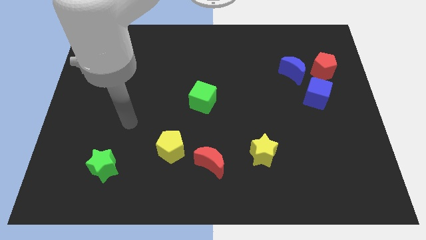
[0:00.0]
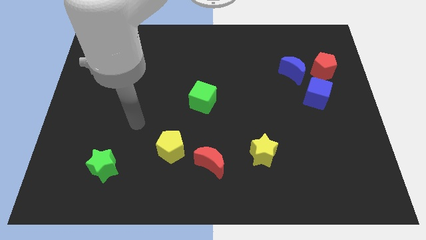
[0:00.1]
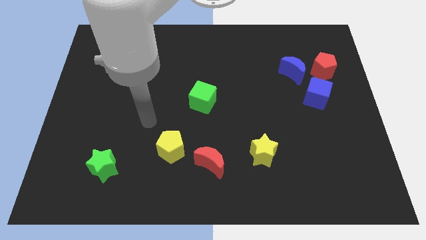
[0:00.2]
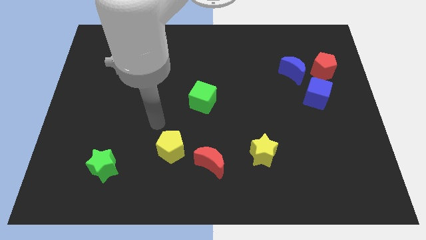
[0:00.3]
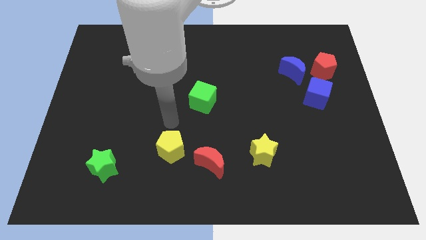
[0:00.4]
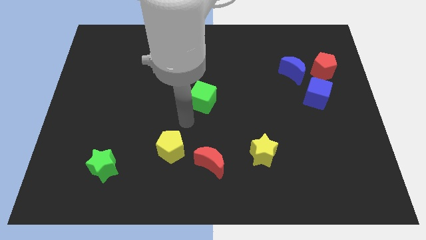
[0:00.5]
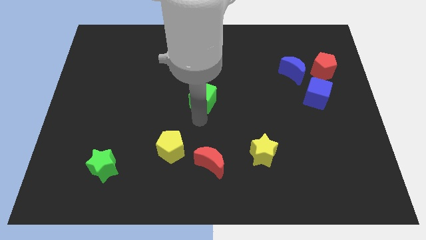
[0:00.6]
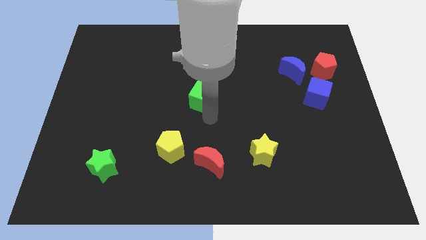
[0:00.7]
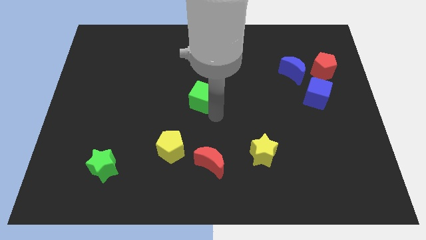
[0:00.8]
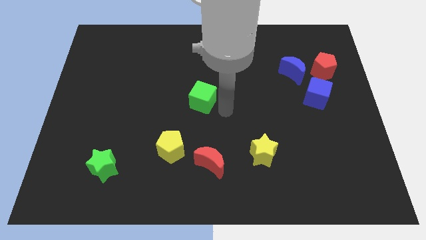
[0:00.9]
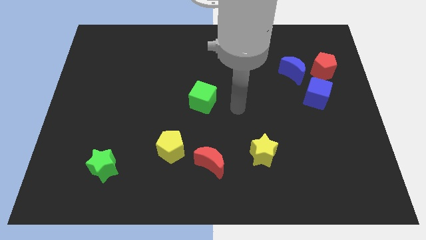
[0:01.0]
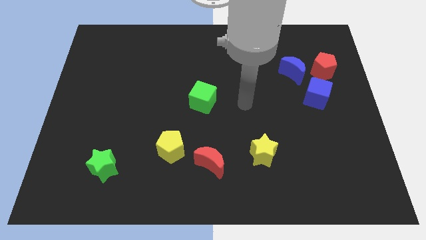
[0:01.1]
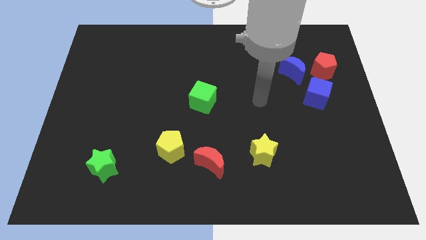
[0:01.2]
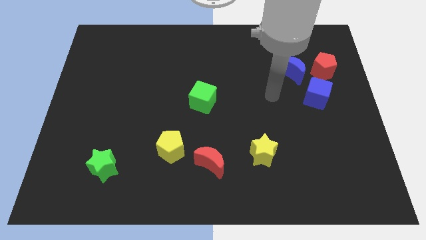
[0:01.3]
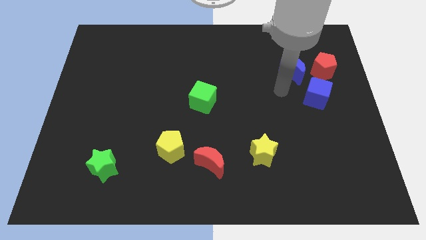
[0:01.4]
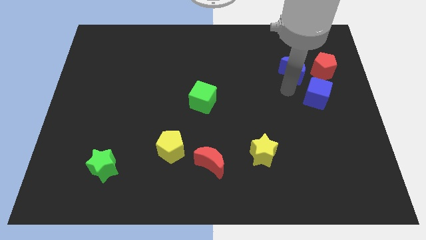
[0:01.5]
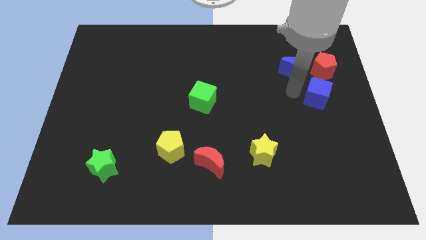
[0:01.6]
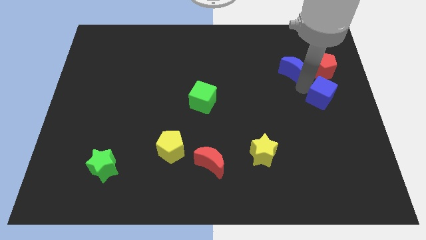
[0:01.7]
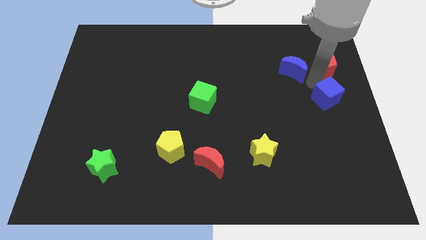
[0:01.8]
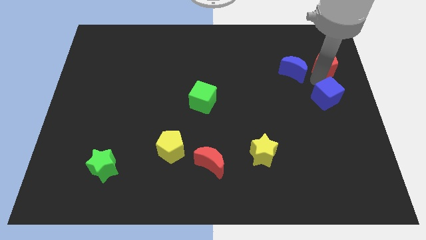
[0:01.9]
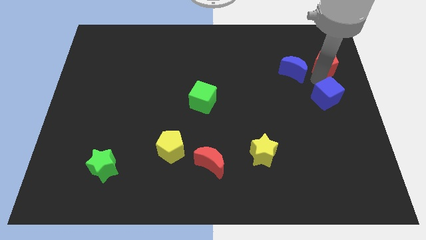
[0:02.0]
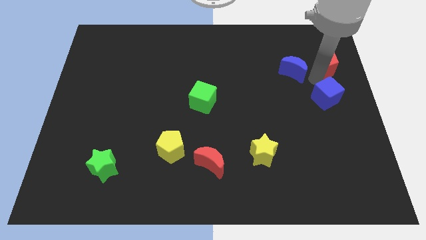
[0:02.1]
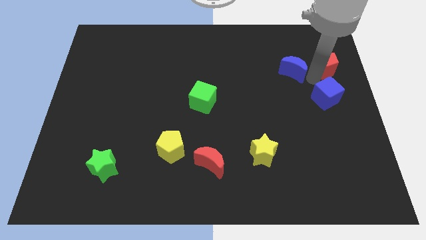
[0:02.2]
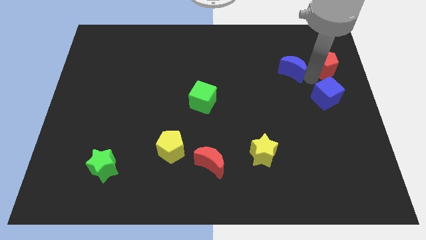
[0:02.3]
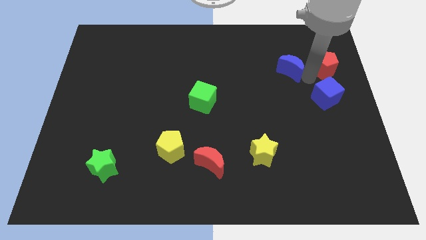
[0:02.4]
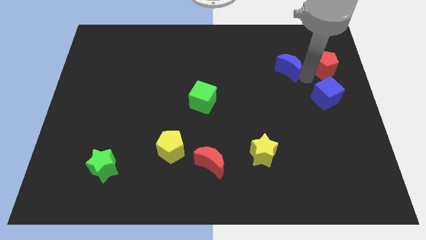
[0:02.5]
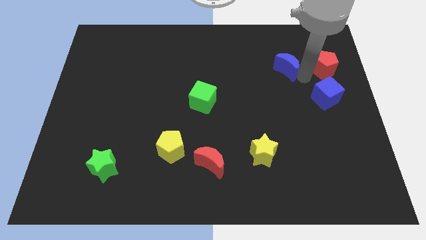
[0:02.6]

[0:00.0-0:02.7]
separate the blue moon from the red pentagon and blue cube

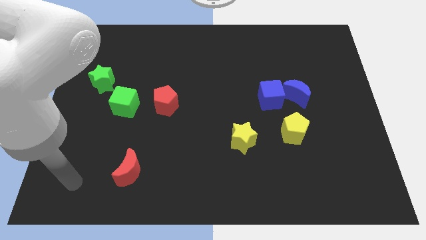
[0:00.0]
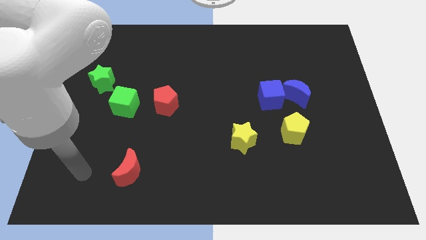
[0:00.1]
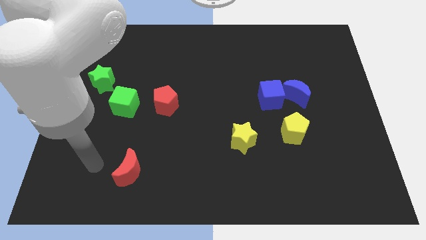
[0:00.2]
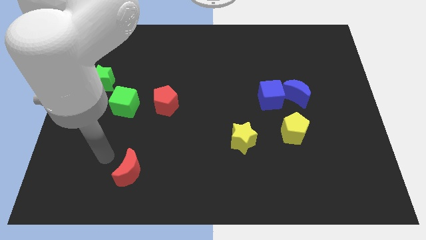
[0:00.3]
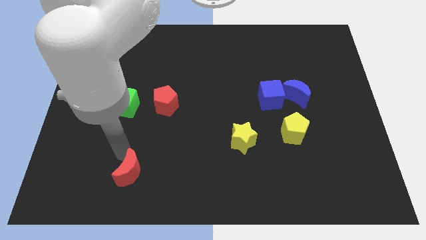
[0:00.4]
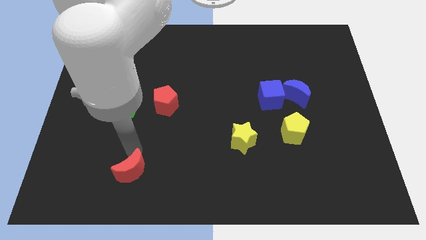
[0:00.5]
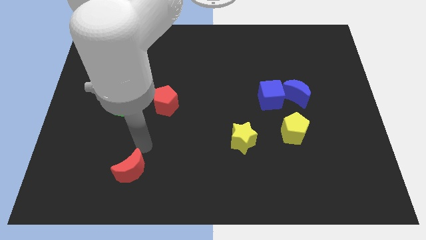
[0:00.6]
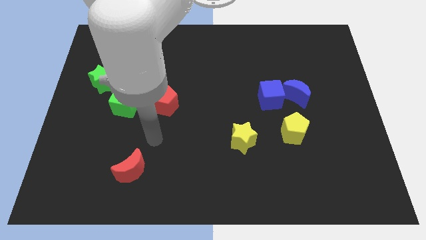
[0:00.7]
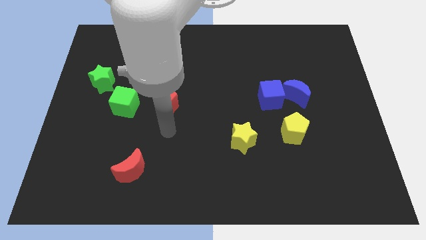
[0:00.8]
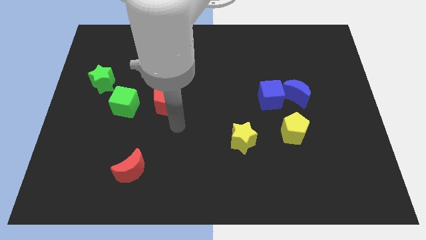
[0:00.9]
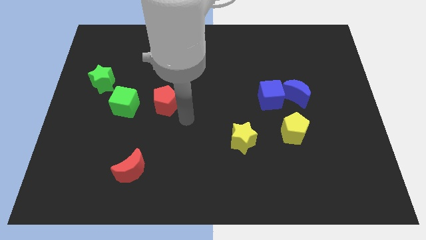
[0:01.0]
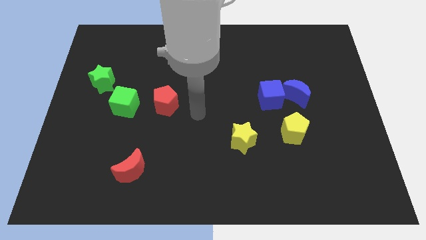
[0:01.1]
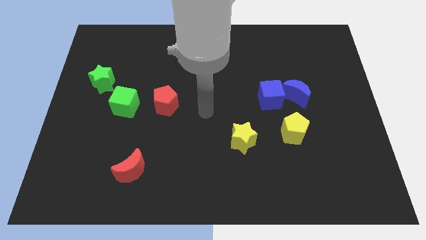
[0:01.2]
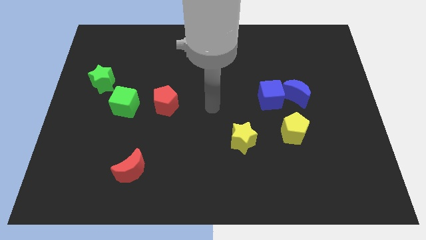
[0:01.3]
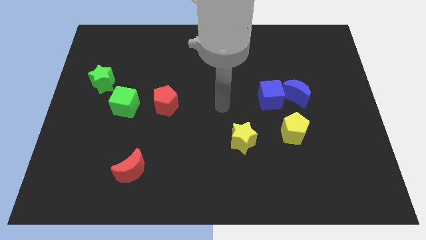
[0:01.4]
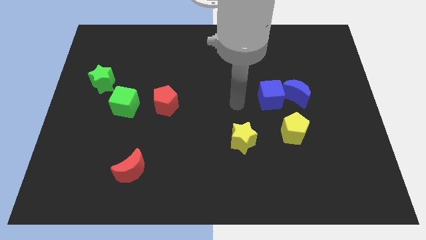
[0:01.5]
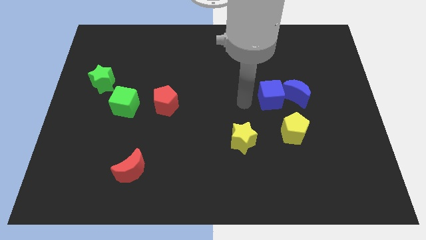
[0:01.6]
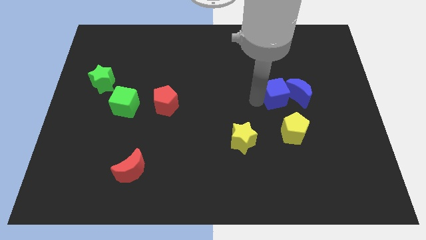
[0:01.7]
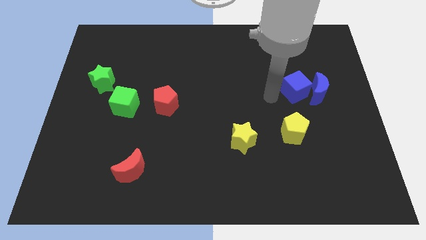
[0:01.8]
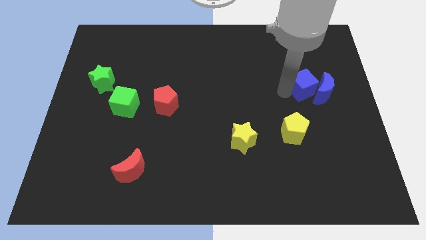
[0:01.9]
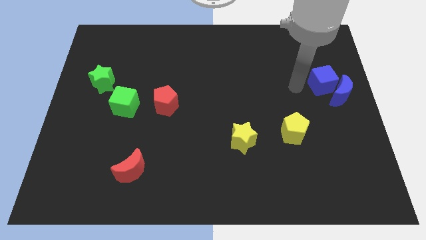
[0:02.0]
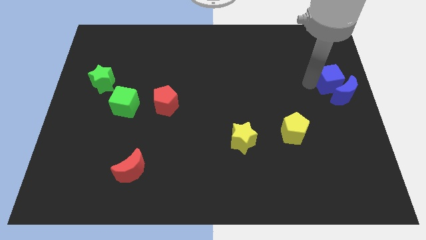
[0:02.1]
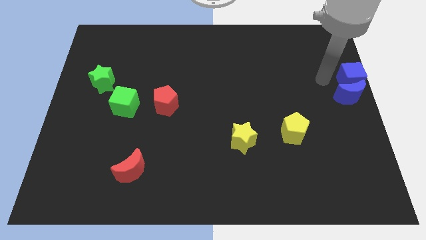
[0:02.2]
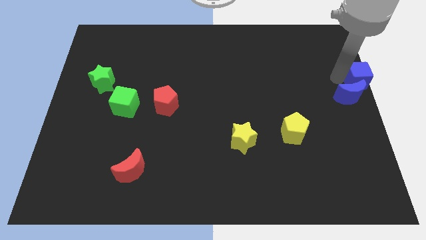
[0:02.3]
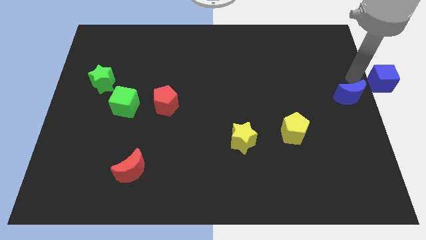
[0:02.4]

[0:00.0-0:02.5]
separate the blue moon from the blue cube

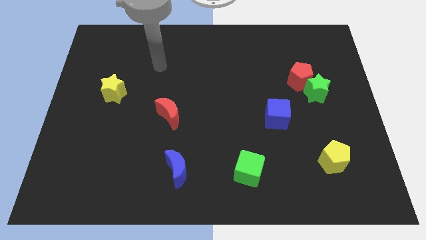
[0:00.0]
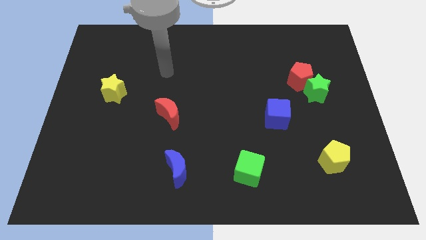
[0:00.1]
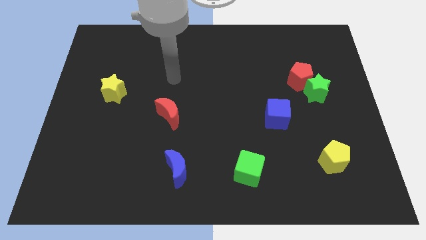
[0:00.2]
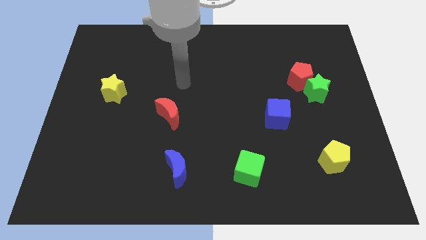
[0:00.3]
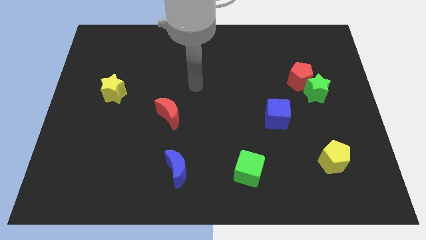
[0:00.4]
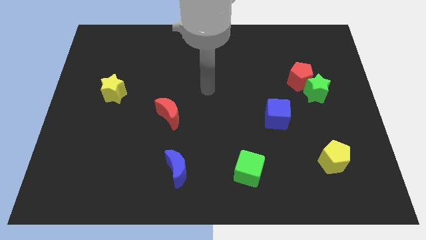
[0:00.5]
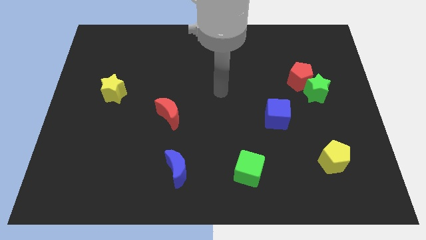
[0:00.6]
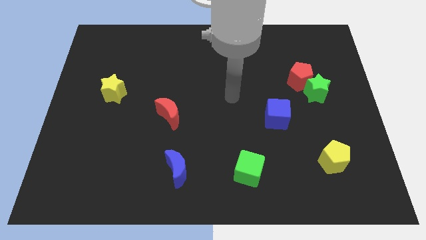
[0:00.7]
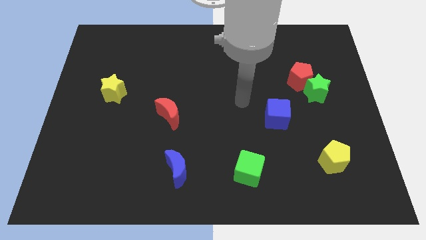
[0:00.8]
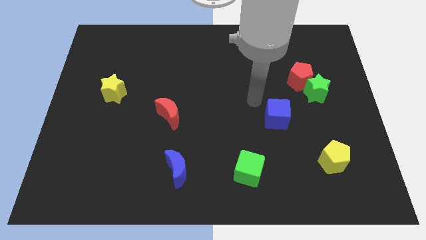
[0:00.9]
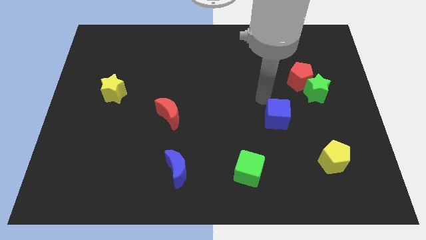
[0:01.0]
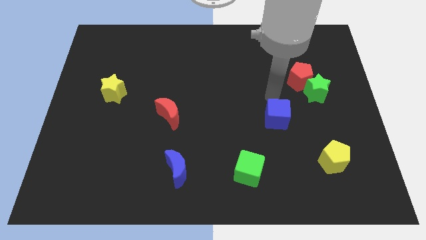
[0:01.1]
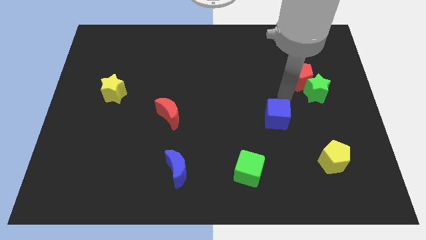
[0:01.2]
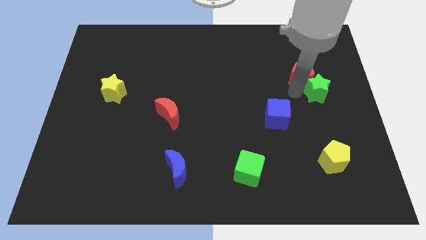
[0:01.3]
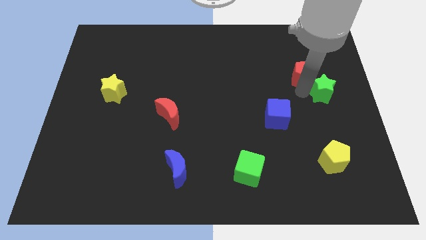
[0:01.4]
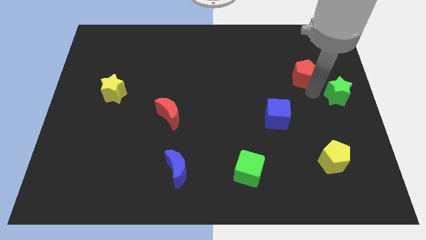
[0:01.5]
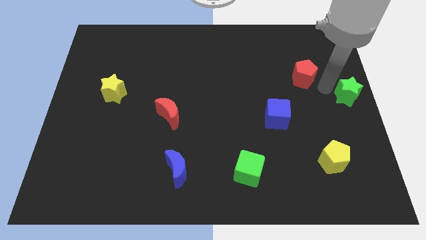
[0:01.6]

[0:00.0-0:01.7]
pull the red pentagon apart from the green star

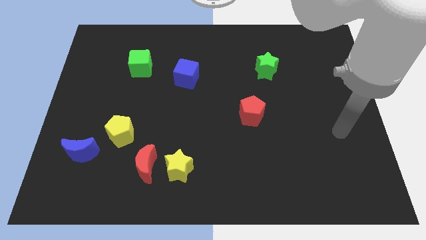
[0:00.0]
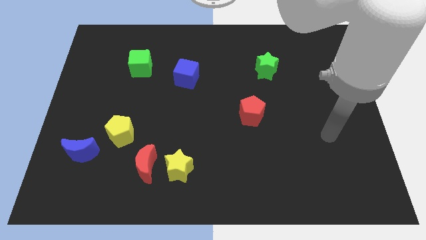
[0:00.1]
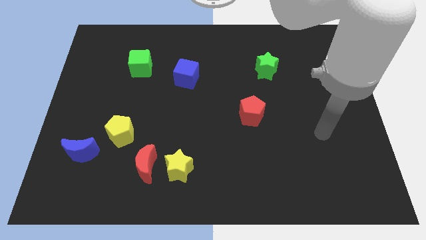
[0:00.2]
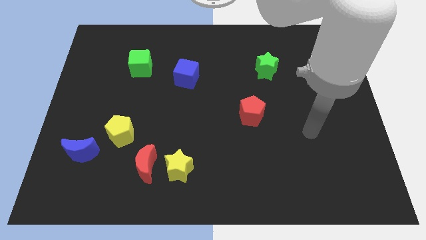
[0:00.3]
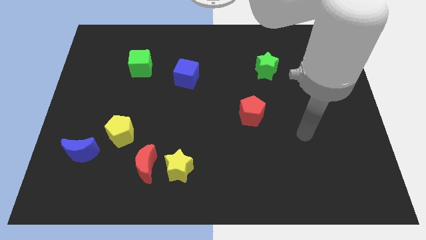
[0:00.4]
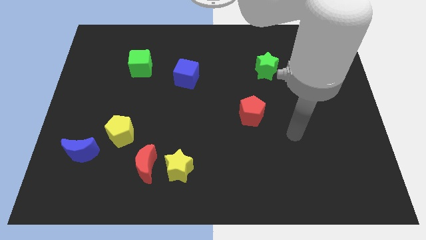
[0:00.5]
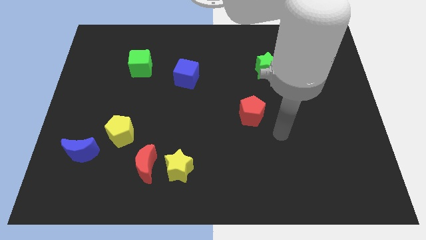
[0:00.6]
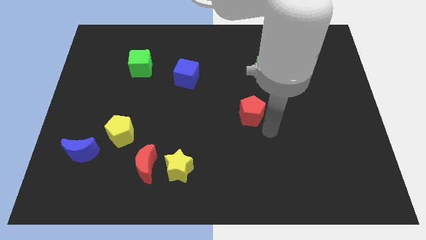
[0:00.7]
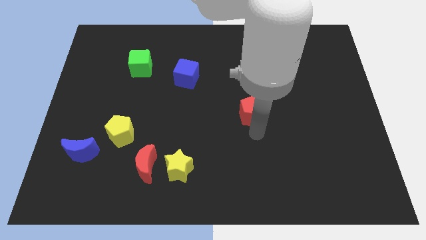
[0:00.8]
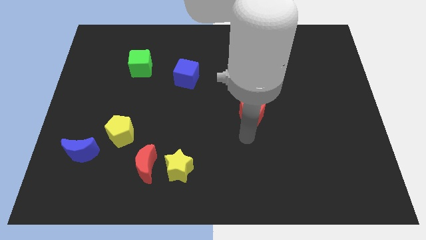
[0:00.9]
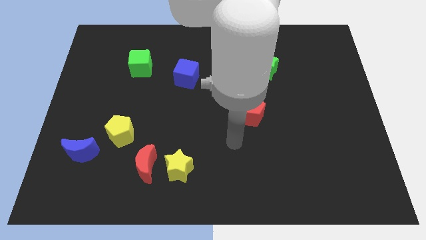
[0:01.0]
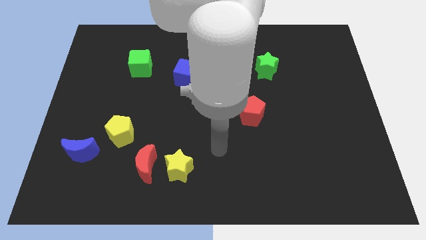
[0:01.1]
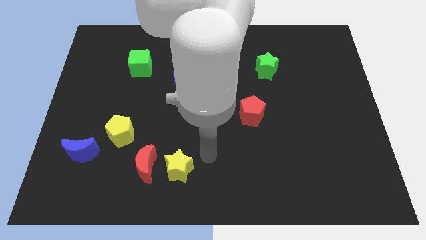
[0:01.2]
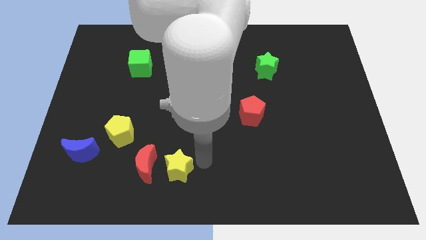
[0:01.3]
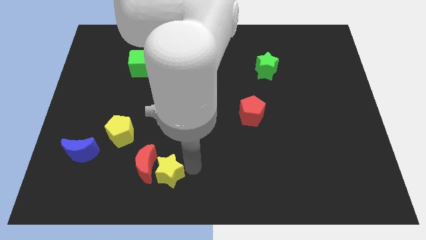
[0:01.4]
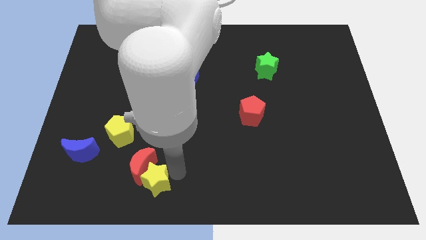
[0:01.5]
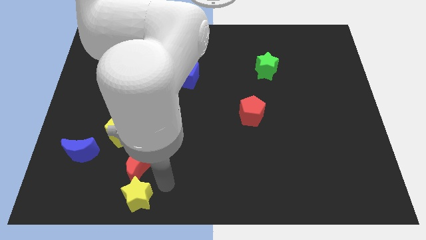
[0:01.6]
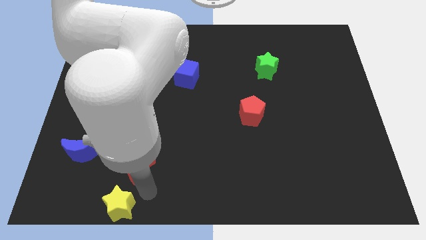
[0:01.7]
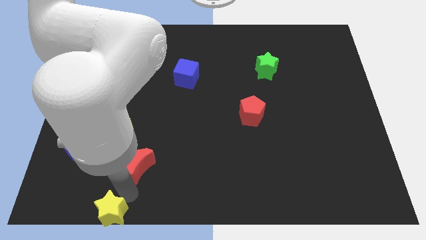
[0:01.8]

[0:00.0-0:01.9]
pull the red moon apart from the yellow star

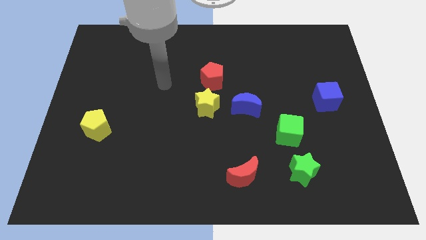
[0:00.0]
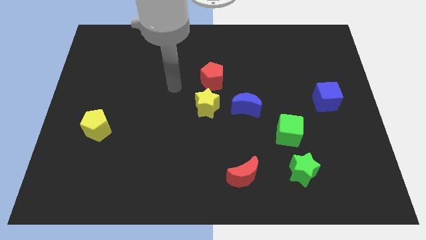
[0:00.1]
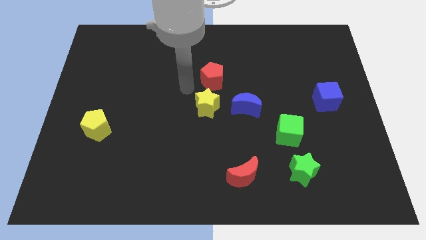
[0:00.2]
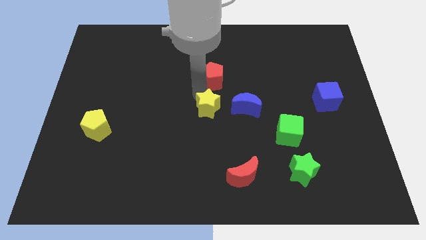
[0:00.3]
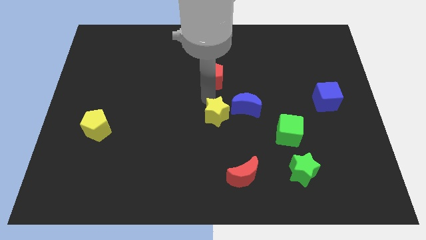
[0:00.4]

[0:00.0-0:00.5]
move the red pentagon away from the yellow star

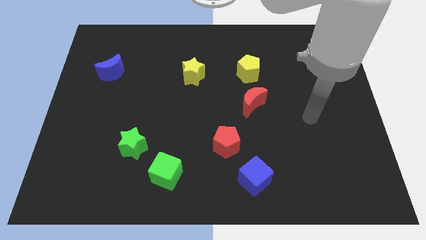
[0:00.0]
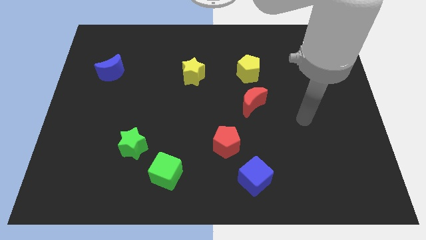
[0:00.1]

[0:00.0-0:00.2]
separate the green cube from the green star
